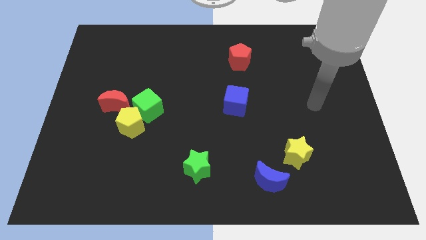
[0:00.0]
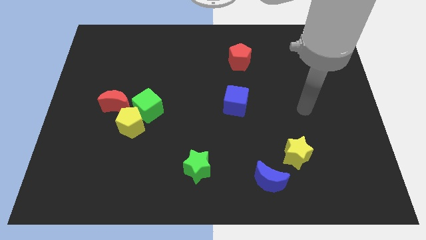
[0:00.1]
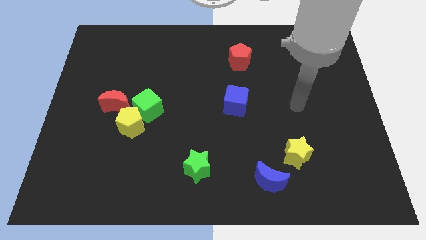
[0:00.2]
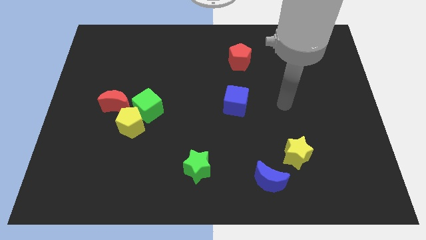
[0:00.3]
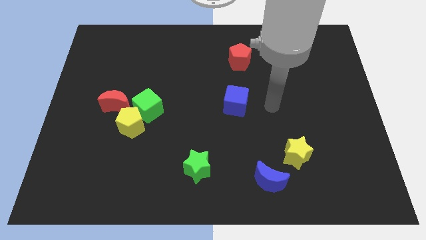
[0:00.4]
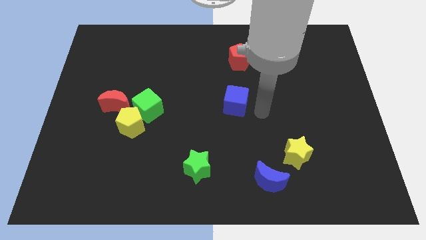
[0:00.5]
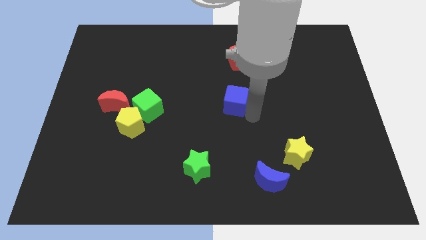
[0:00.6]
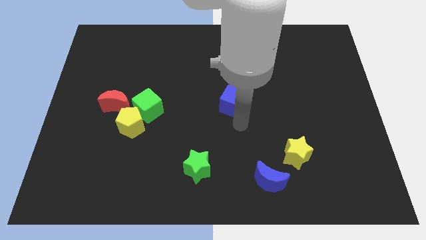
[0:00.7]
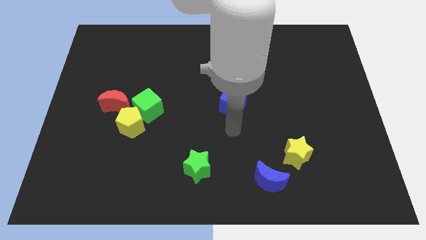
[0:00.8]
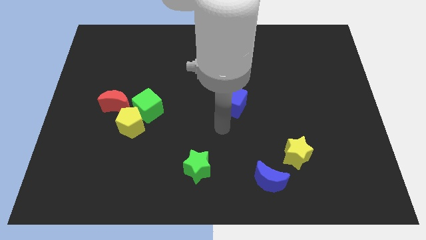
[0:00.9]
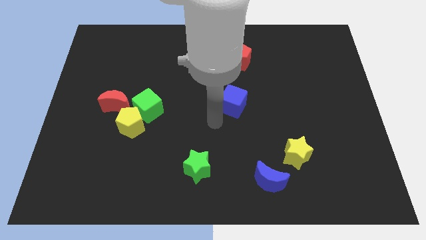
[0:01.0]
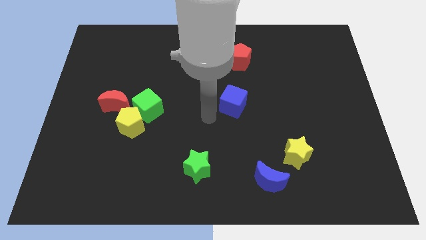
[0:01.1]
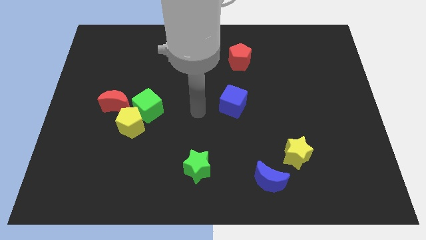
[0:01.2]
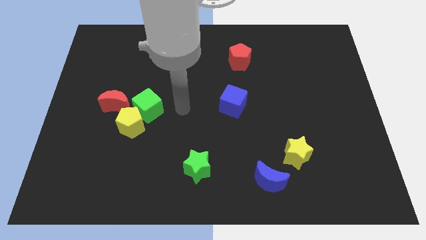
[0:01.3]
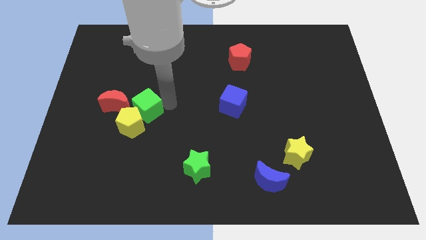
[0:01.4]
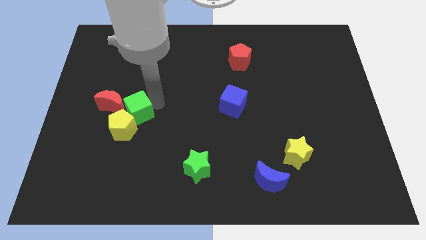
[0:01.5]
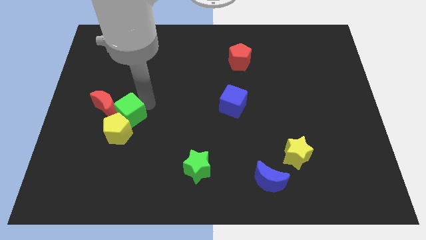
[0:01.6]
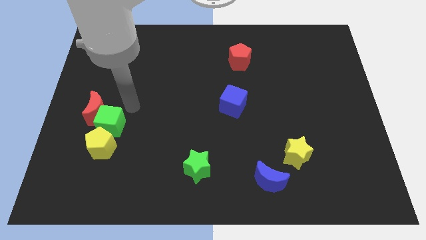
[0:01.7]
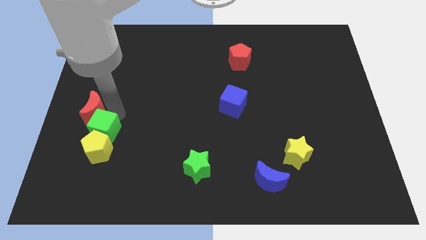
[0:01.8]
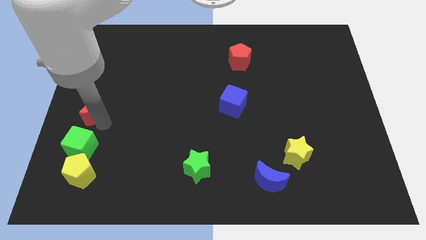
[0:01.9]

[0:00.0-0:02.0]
move the yellow pentagon away from the green cube and red moon

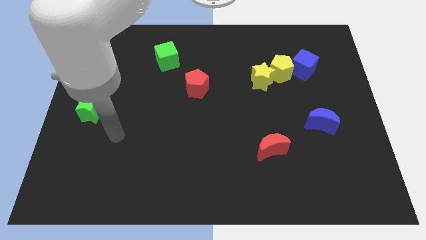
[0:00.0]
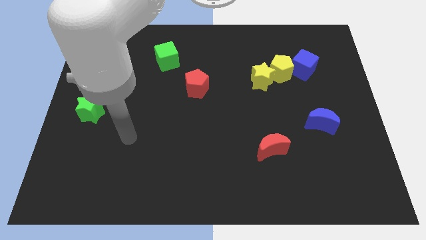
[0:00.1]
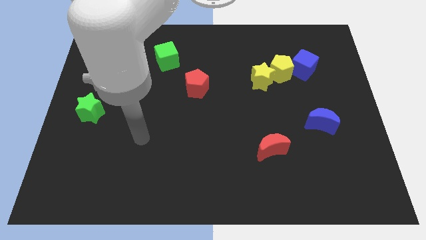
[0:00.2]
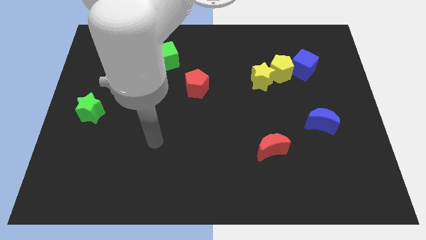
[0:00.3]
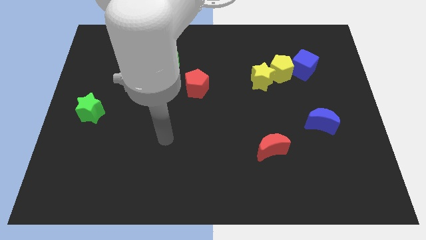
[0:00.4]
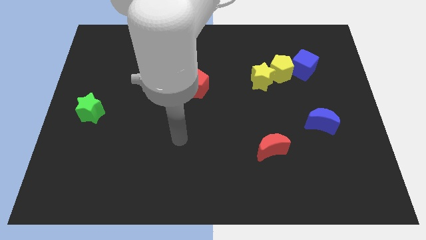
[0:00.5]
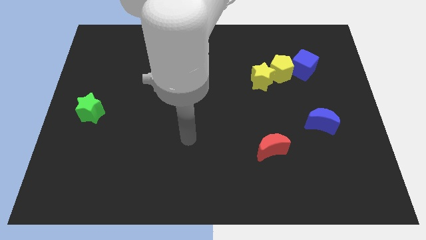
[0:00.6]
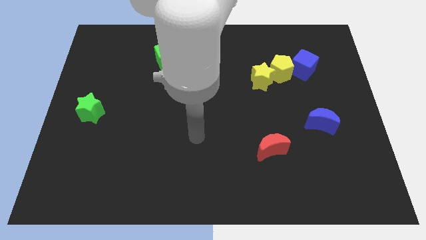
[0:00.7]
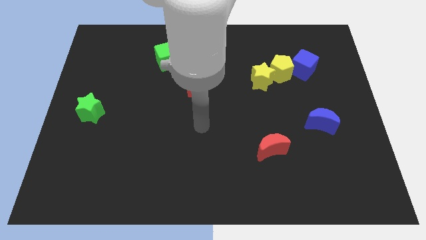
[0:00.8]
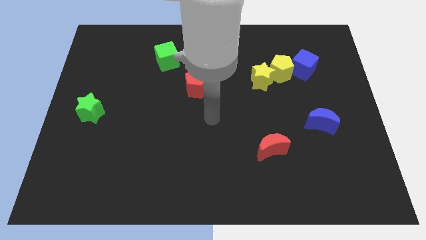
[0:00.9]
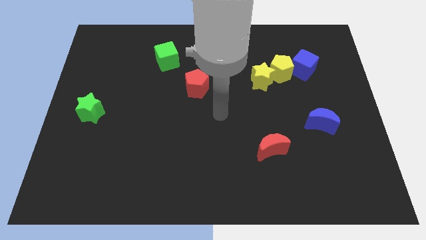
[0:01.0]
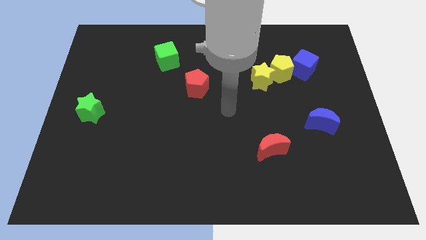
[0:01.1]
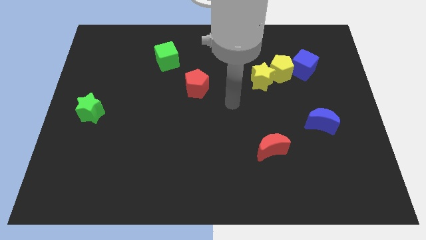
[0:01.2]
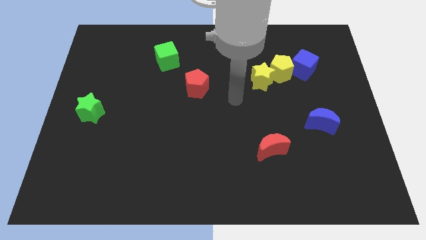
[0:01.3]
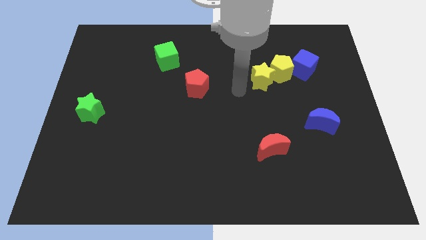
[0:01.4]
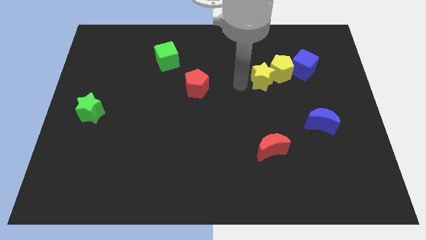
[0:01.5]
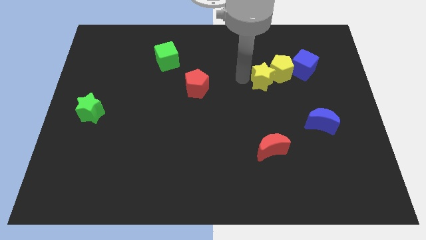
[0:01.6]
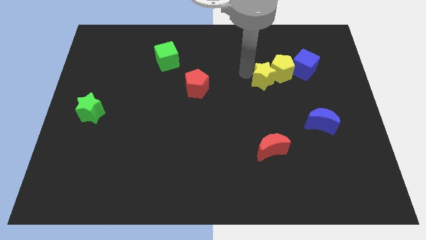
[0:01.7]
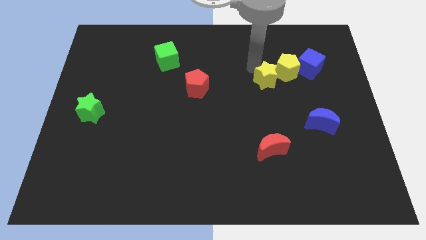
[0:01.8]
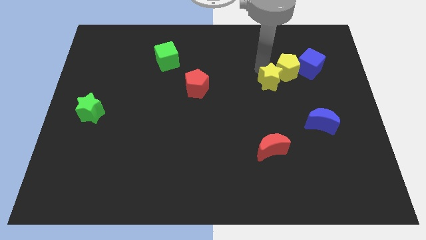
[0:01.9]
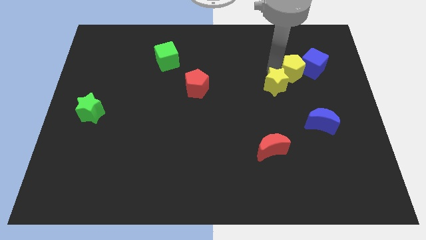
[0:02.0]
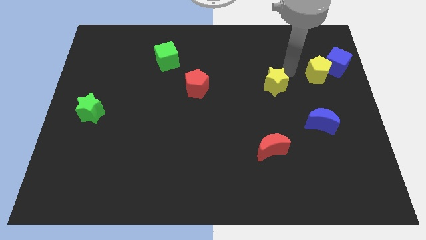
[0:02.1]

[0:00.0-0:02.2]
pull the yellow star apart from the yellow pentagon

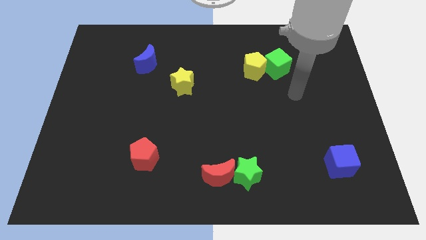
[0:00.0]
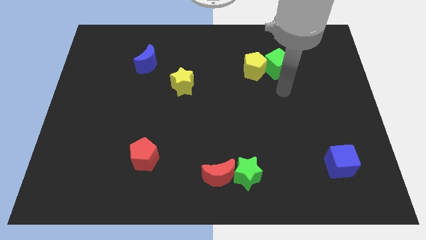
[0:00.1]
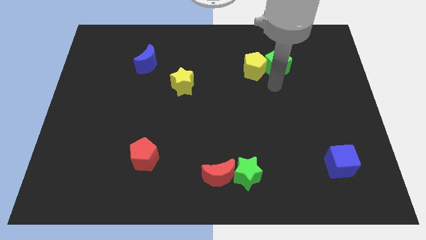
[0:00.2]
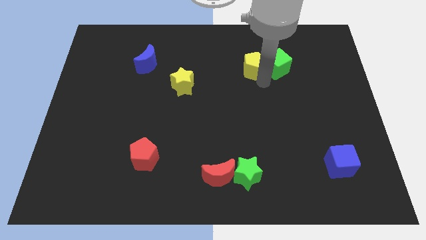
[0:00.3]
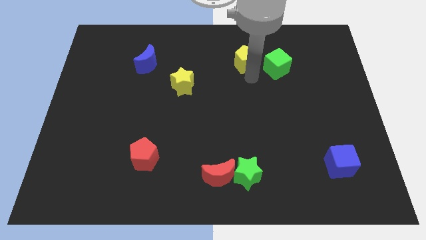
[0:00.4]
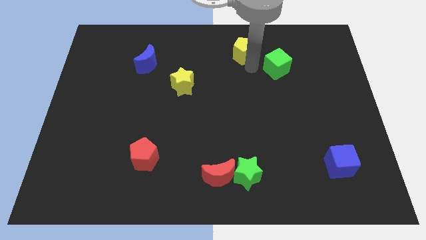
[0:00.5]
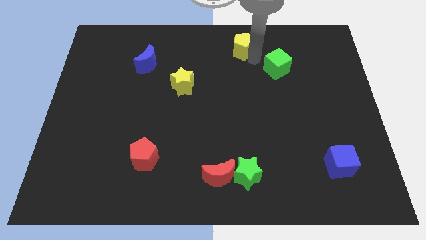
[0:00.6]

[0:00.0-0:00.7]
move the green cube away from the yellow pentagon

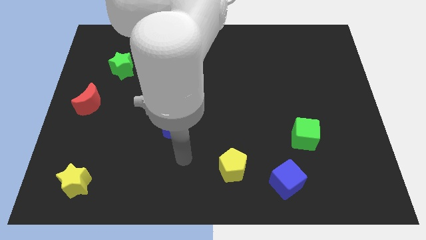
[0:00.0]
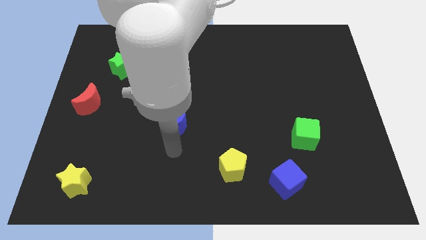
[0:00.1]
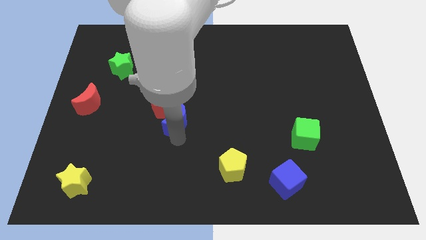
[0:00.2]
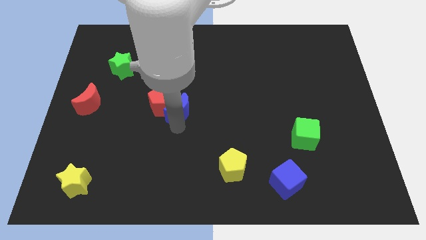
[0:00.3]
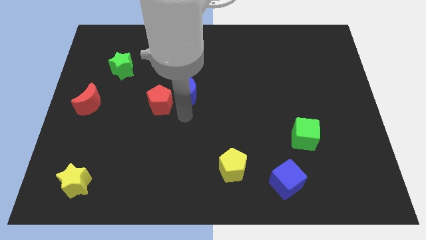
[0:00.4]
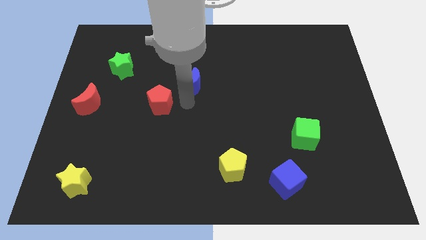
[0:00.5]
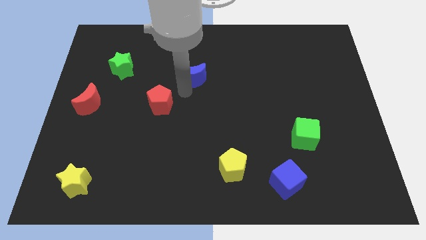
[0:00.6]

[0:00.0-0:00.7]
move the red pentagon away from the blue moon

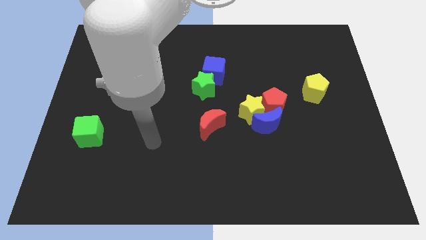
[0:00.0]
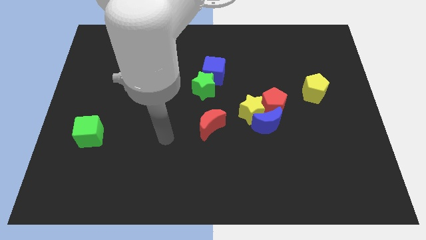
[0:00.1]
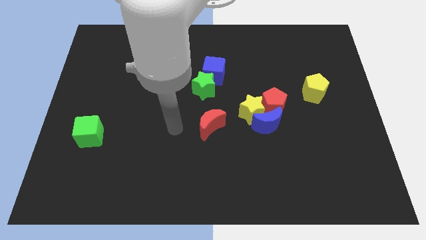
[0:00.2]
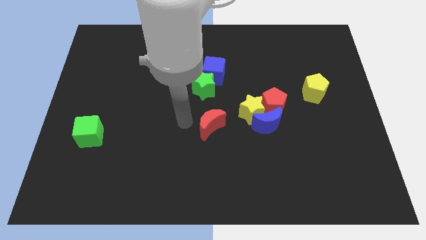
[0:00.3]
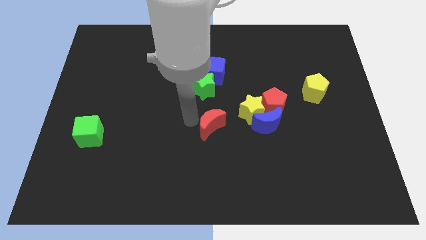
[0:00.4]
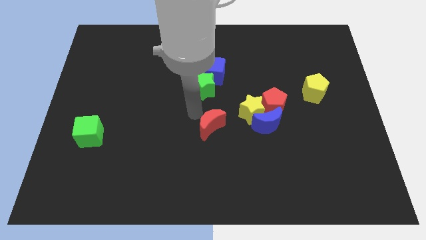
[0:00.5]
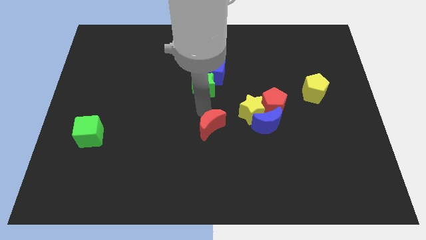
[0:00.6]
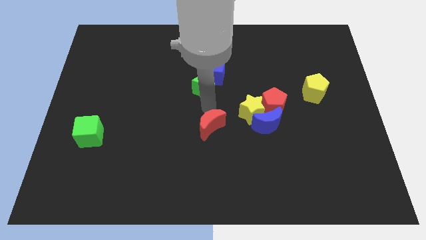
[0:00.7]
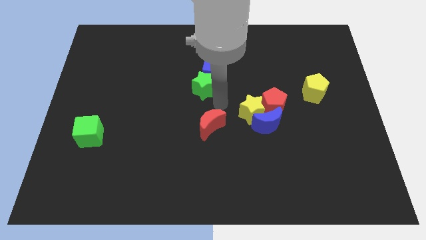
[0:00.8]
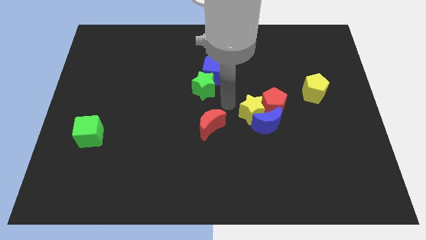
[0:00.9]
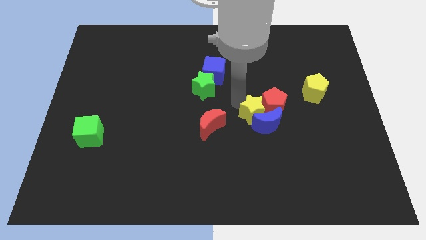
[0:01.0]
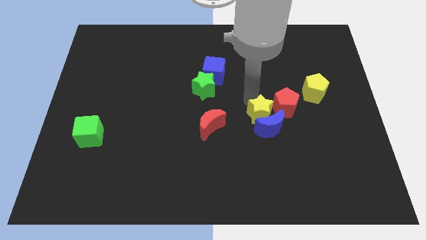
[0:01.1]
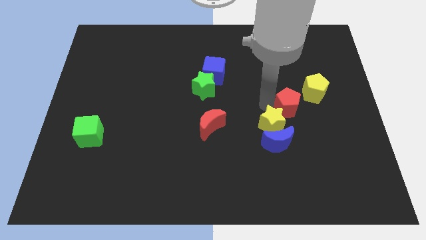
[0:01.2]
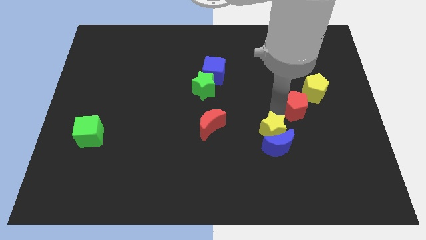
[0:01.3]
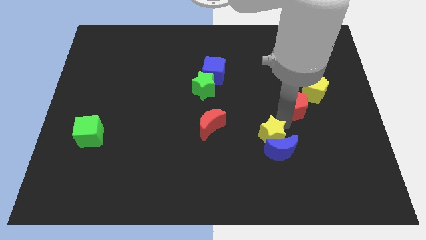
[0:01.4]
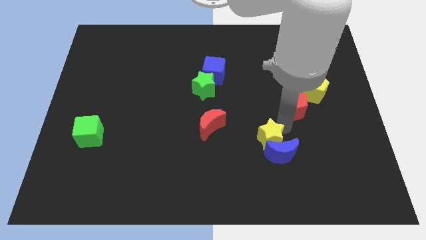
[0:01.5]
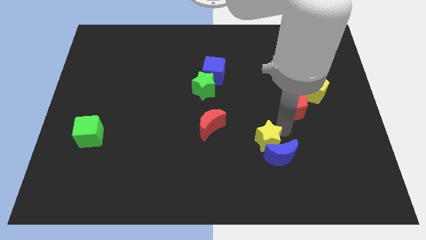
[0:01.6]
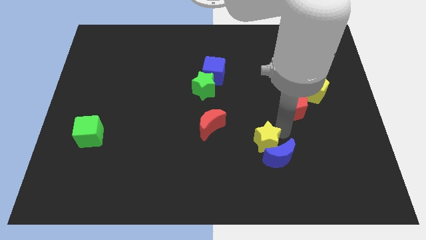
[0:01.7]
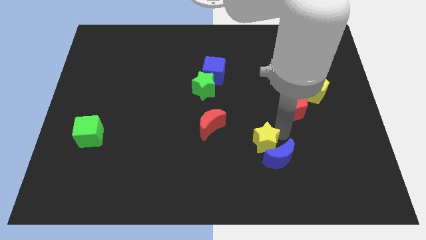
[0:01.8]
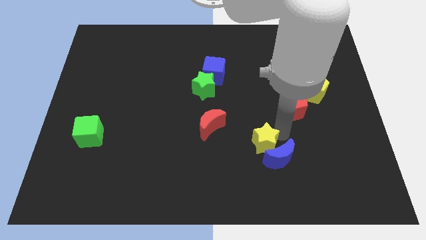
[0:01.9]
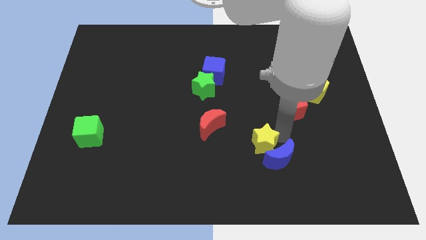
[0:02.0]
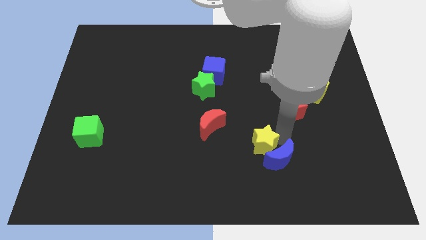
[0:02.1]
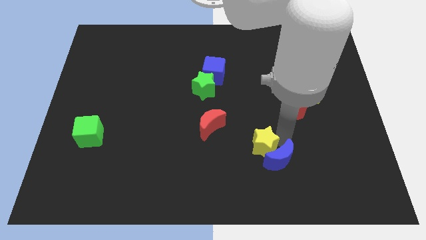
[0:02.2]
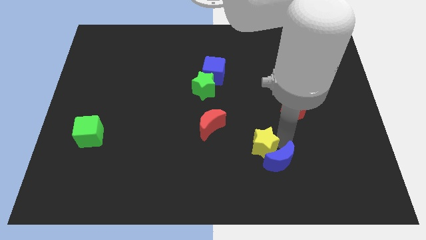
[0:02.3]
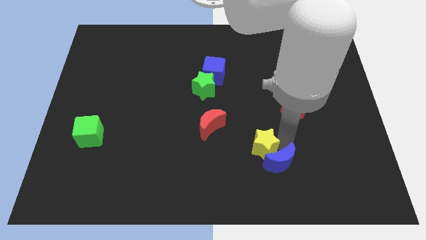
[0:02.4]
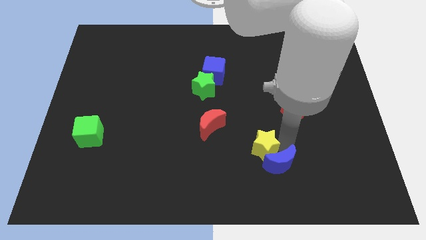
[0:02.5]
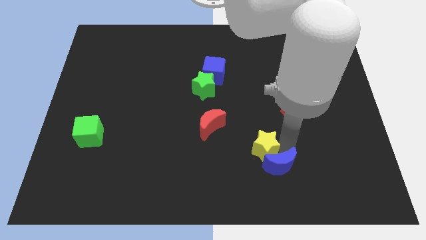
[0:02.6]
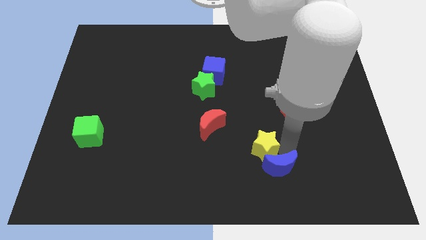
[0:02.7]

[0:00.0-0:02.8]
move the blue moon away from the yellow star and red pentagon

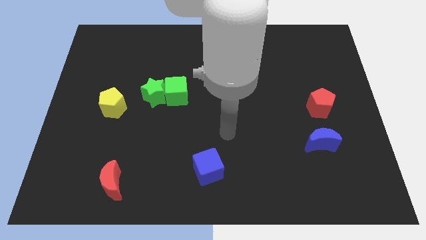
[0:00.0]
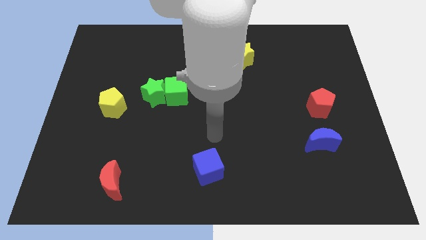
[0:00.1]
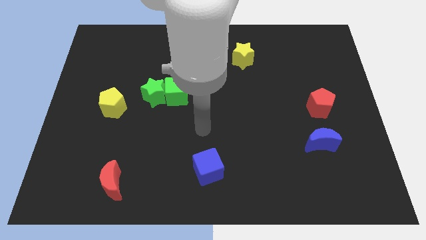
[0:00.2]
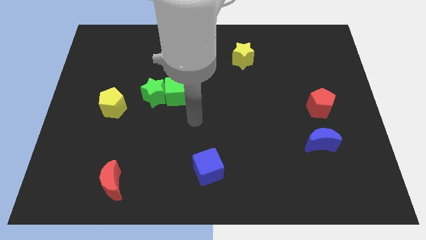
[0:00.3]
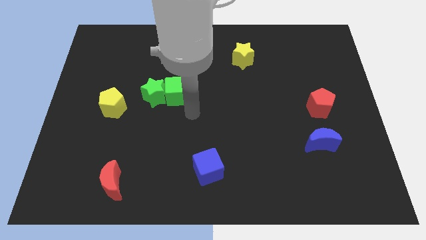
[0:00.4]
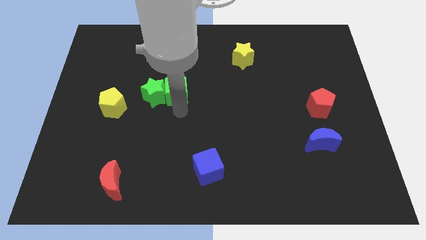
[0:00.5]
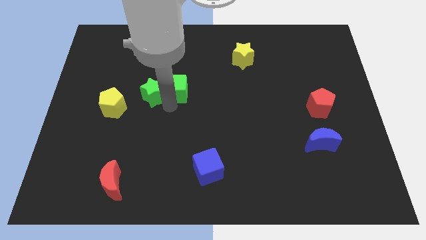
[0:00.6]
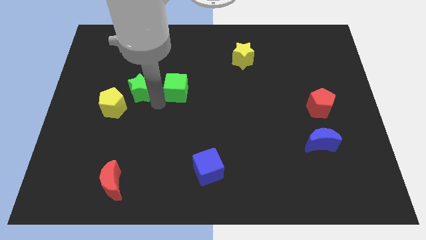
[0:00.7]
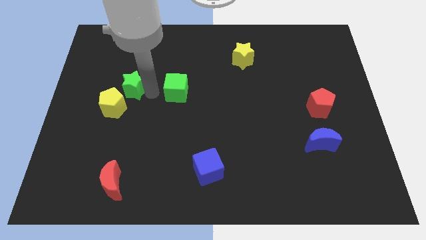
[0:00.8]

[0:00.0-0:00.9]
pull the green cube apart from the green star

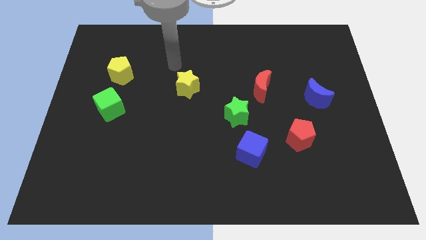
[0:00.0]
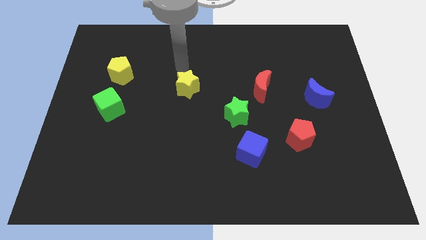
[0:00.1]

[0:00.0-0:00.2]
move the red moon away from the green star
